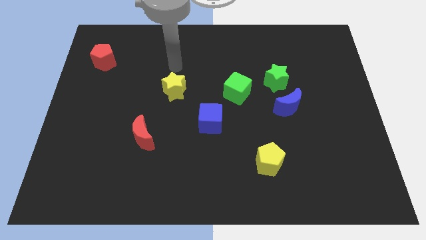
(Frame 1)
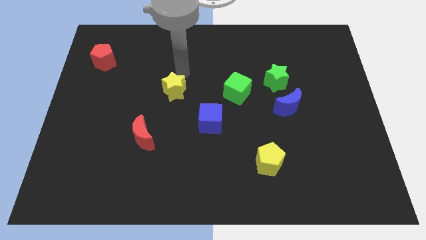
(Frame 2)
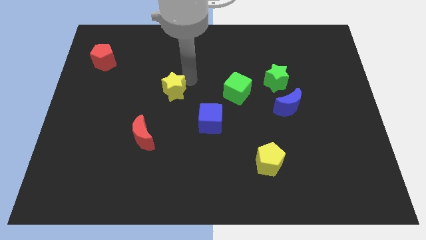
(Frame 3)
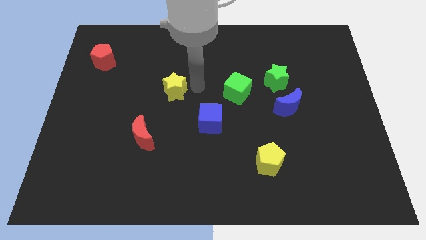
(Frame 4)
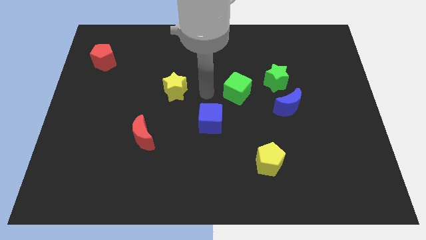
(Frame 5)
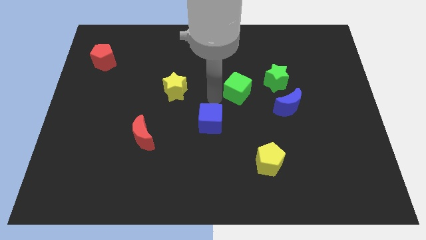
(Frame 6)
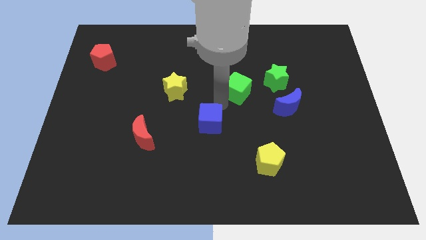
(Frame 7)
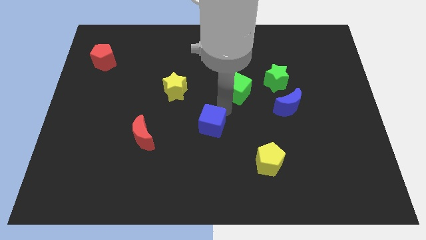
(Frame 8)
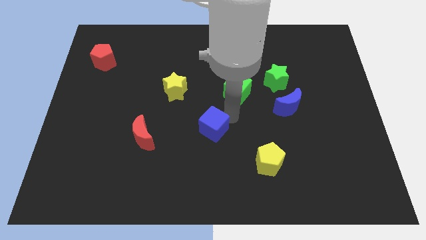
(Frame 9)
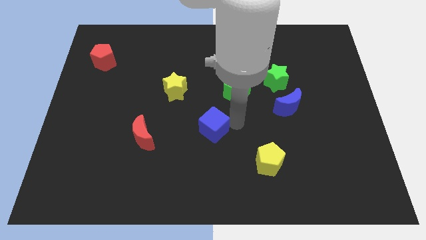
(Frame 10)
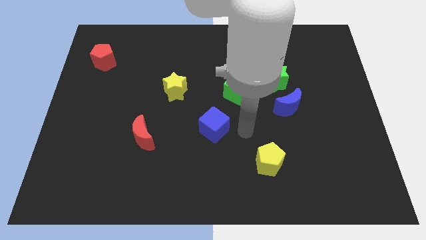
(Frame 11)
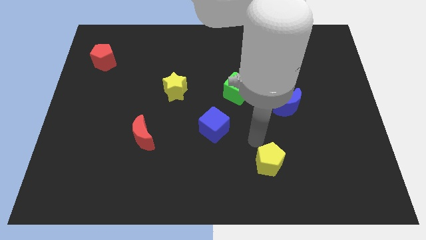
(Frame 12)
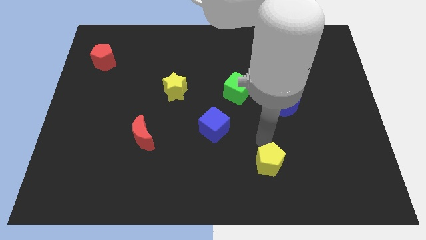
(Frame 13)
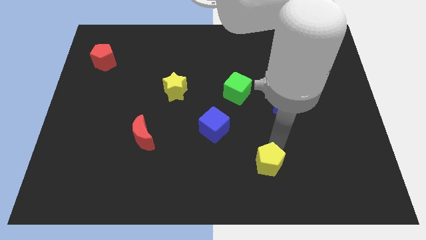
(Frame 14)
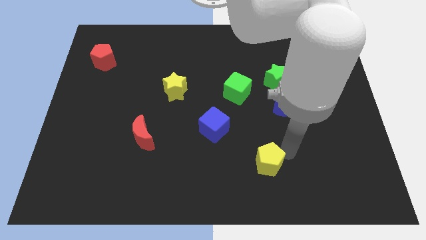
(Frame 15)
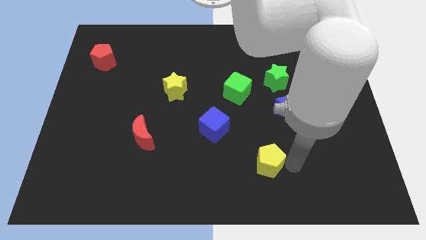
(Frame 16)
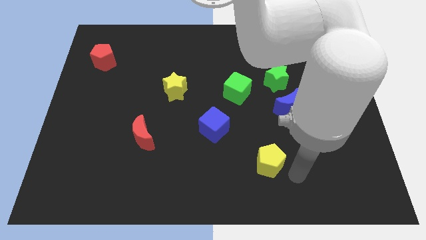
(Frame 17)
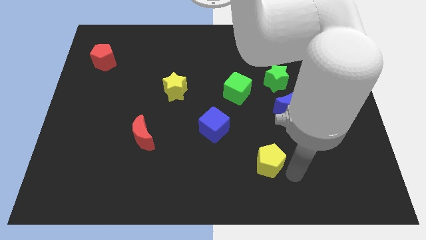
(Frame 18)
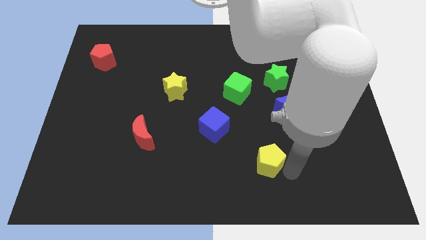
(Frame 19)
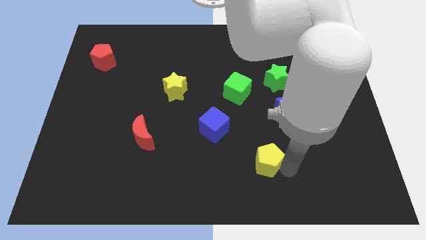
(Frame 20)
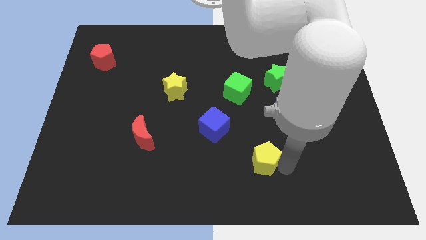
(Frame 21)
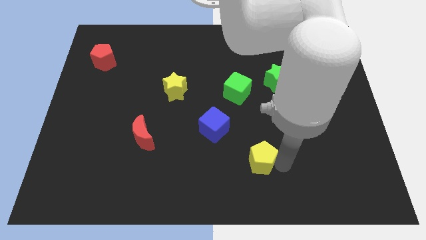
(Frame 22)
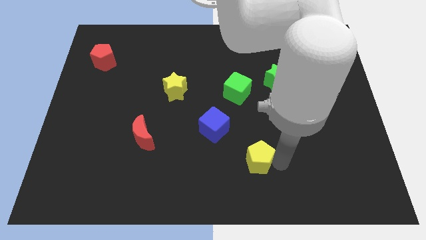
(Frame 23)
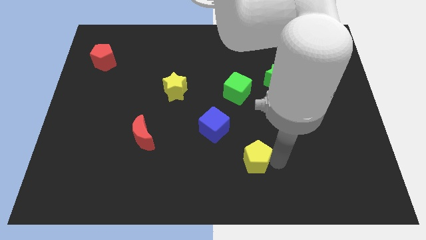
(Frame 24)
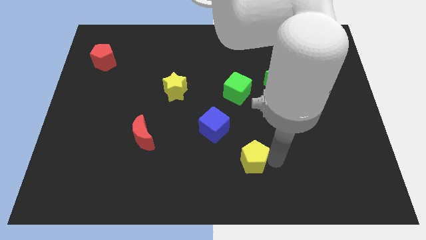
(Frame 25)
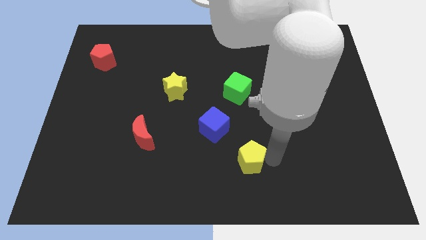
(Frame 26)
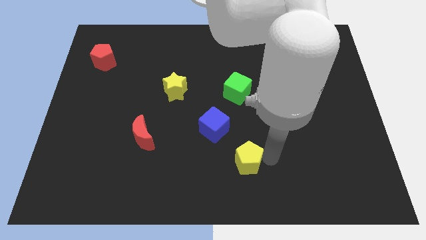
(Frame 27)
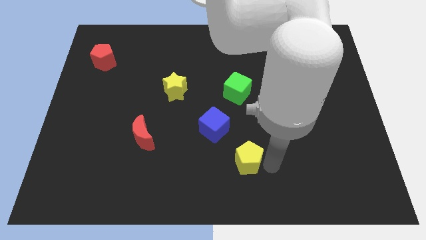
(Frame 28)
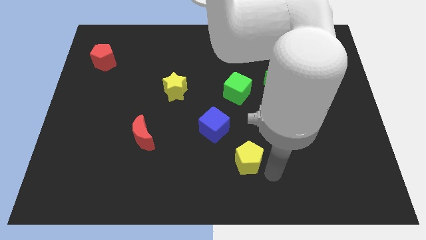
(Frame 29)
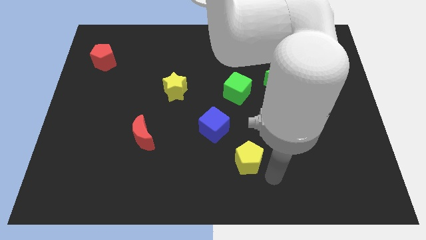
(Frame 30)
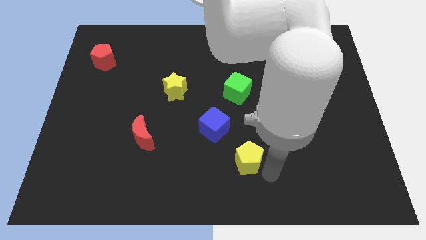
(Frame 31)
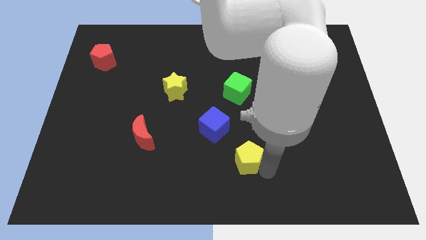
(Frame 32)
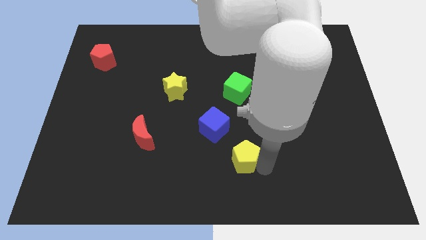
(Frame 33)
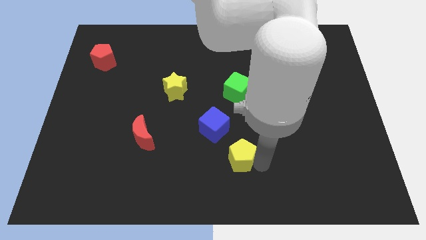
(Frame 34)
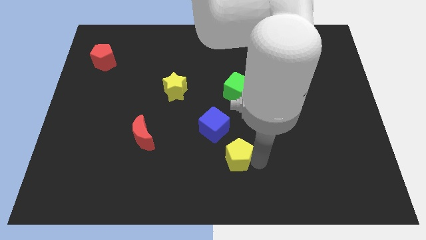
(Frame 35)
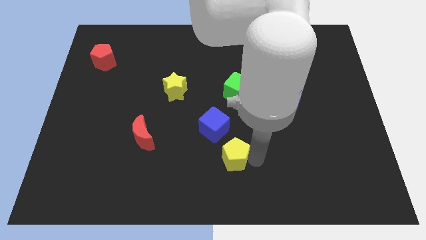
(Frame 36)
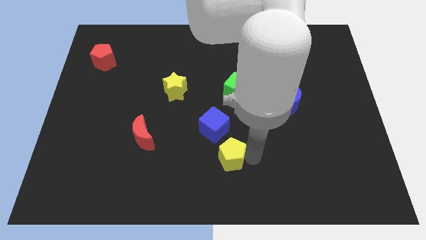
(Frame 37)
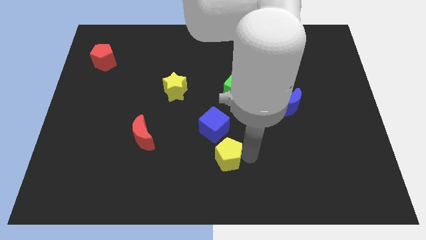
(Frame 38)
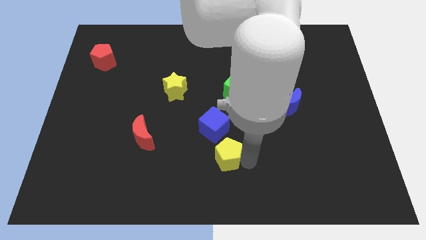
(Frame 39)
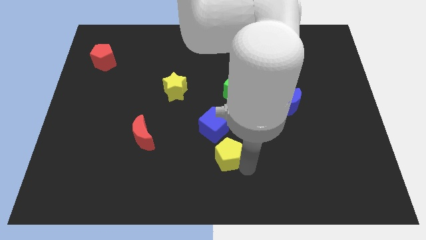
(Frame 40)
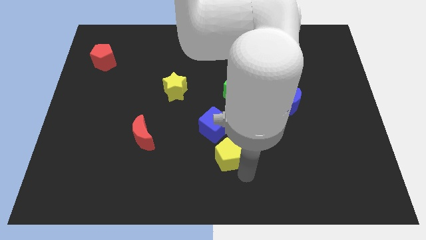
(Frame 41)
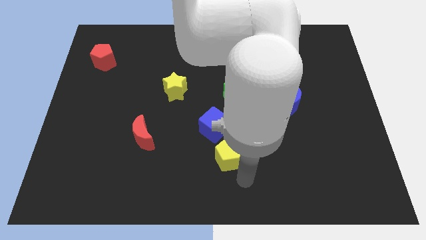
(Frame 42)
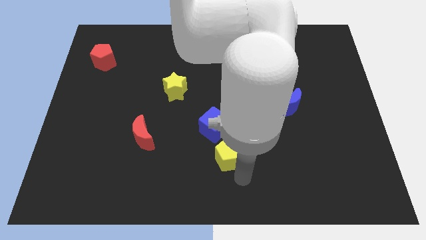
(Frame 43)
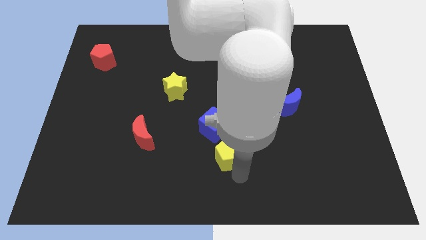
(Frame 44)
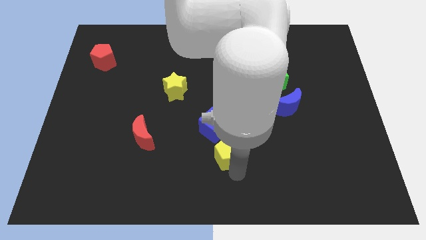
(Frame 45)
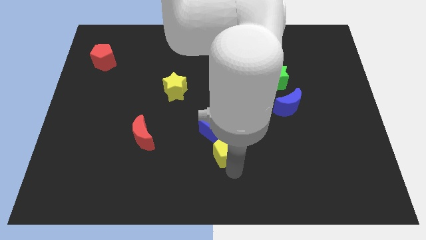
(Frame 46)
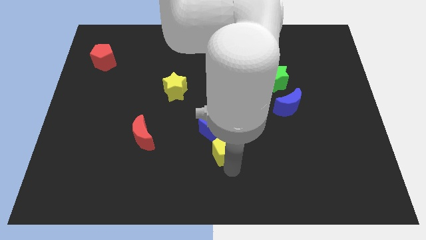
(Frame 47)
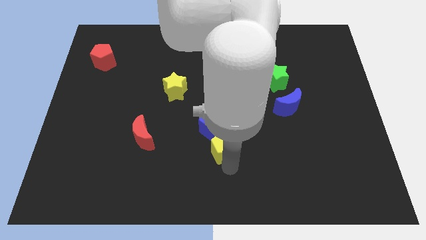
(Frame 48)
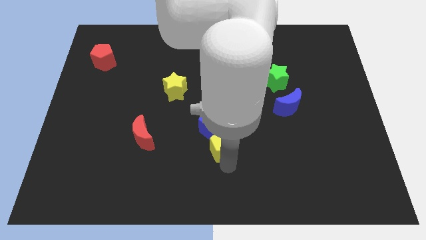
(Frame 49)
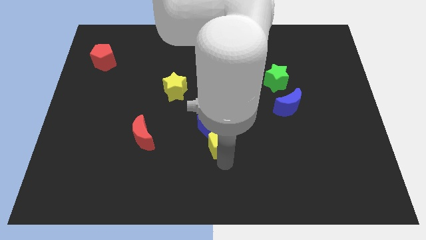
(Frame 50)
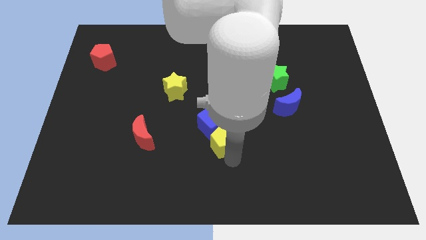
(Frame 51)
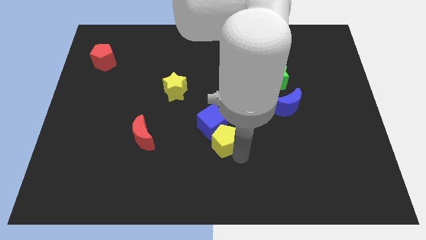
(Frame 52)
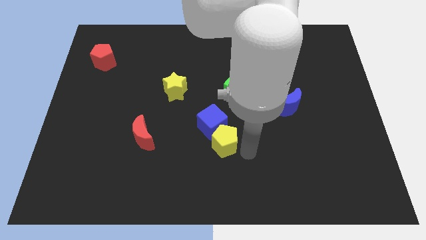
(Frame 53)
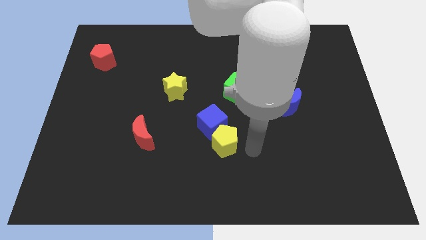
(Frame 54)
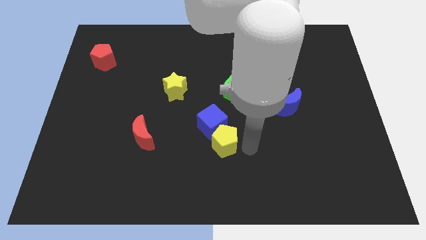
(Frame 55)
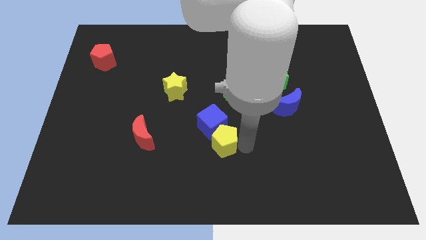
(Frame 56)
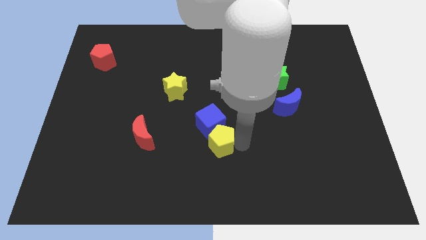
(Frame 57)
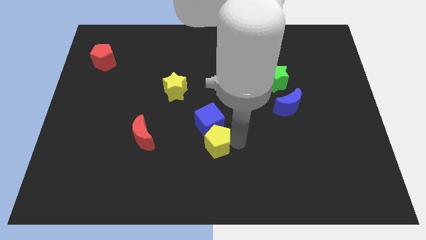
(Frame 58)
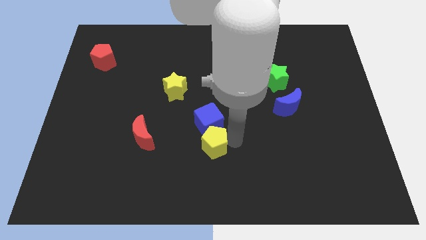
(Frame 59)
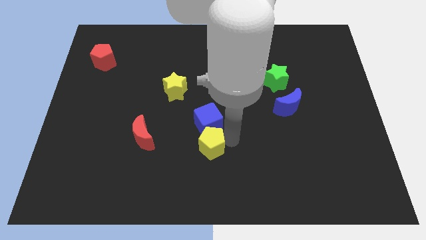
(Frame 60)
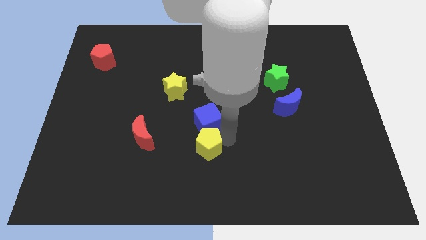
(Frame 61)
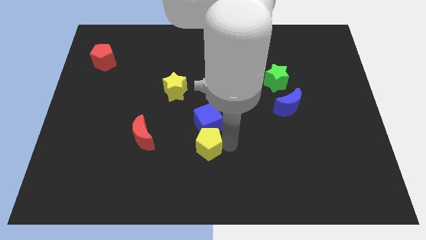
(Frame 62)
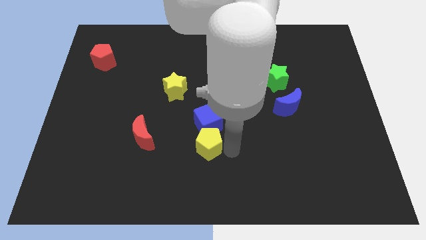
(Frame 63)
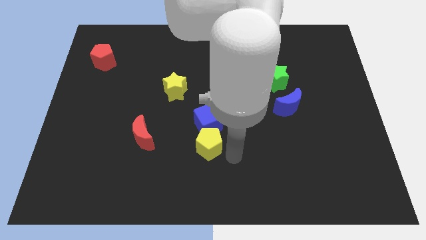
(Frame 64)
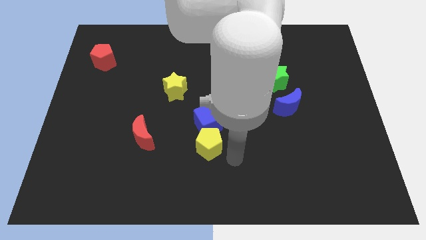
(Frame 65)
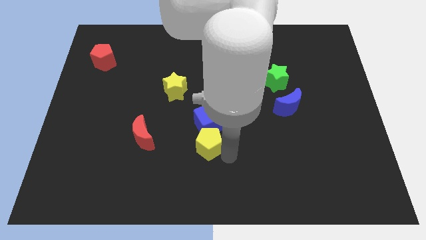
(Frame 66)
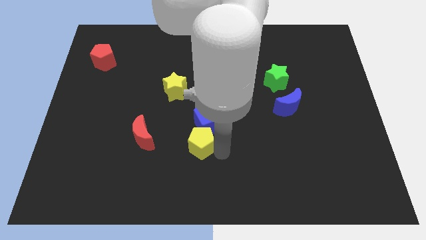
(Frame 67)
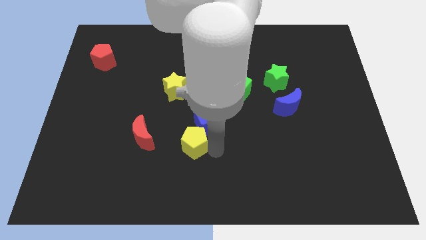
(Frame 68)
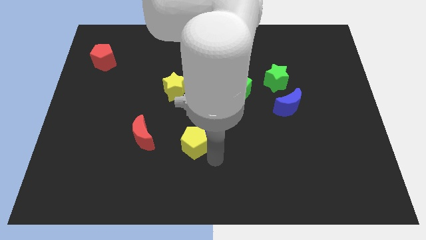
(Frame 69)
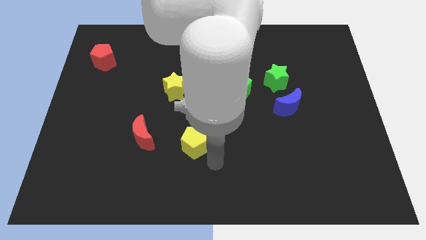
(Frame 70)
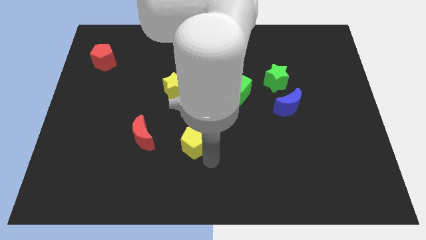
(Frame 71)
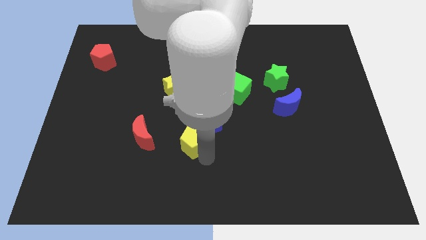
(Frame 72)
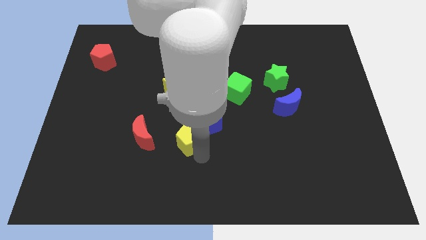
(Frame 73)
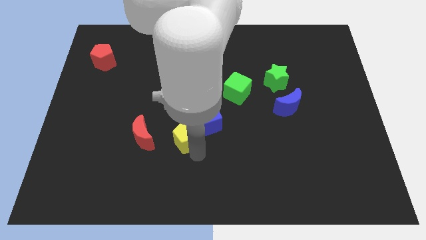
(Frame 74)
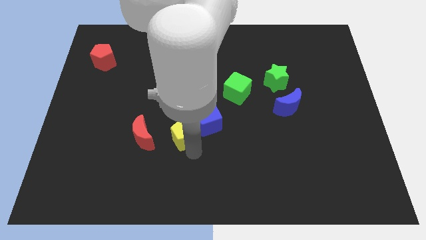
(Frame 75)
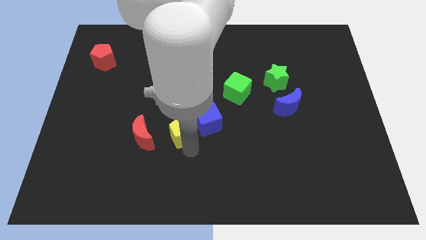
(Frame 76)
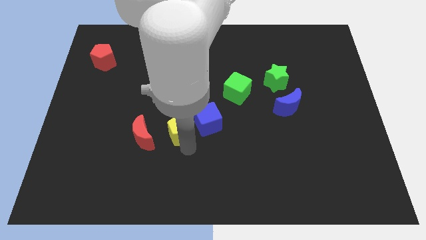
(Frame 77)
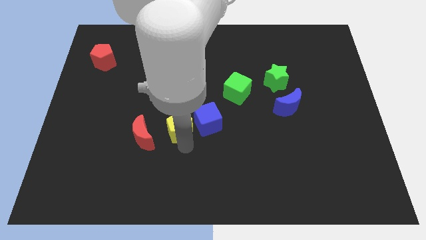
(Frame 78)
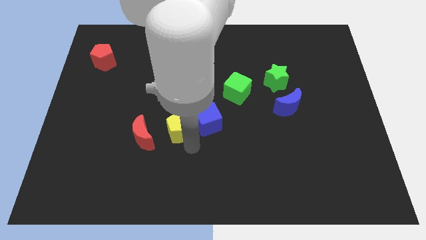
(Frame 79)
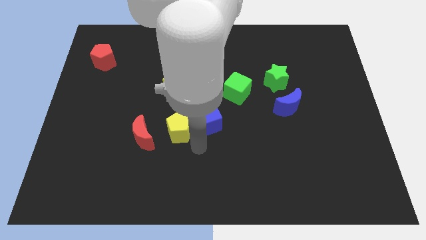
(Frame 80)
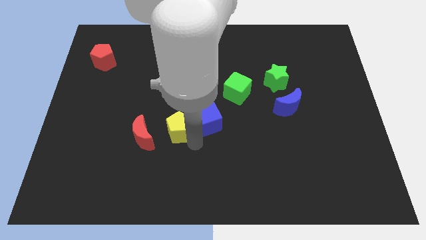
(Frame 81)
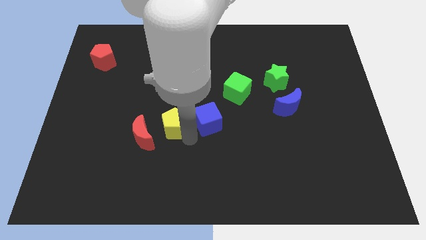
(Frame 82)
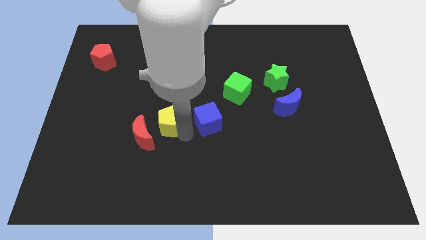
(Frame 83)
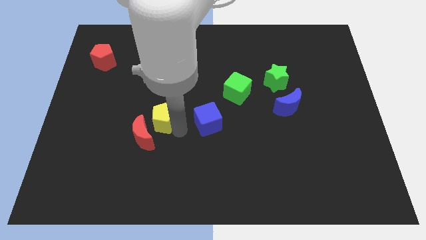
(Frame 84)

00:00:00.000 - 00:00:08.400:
push the yellow pentagon to the bottom left side of the yellow star

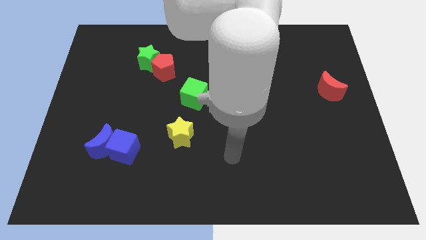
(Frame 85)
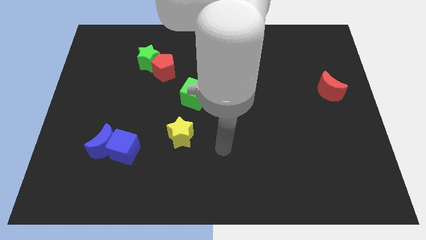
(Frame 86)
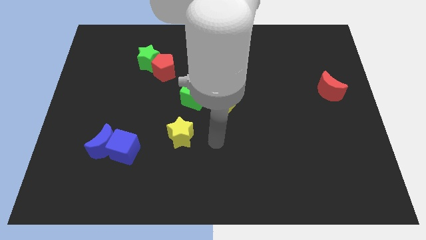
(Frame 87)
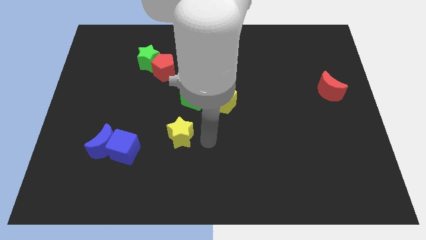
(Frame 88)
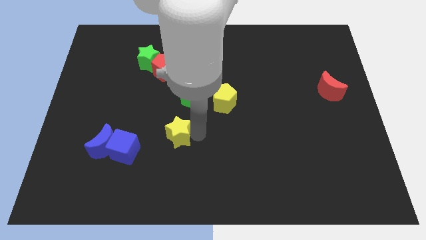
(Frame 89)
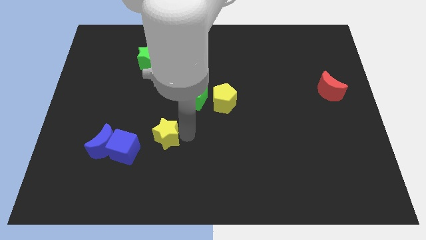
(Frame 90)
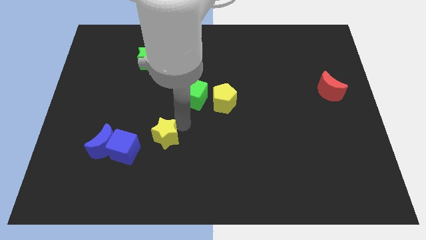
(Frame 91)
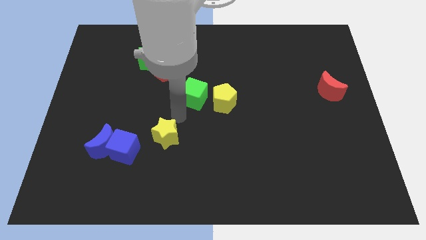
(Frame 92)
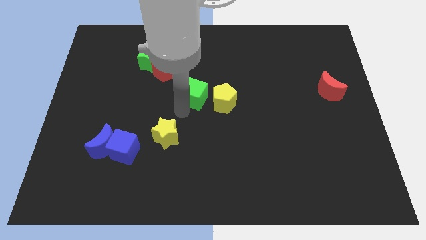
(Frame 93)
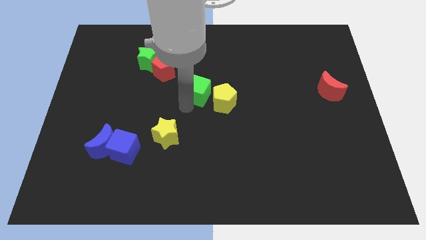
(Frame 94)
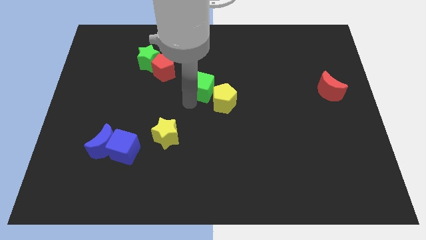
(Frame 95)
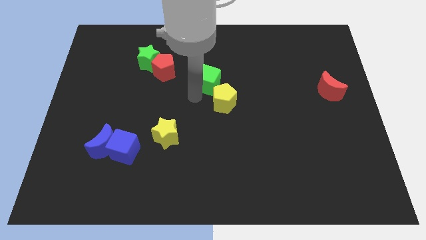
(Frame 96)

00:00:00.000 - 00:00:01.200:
push the green cube to the top of the yellow pentagon
